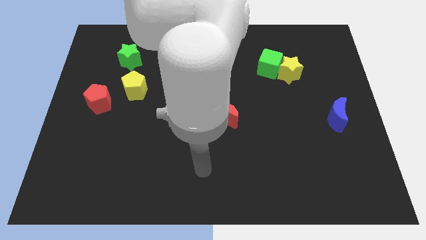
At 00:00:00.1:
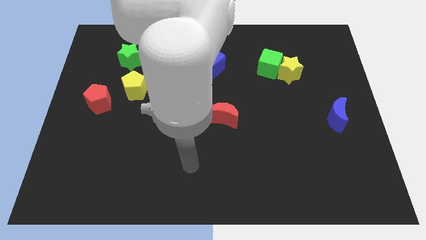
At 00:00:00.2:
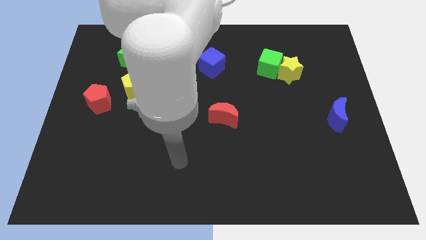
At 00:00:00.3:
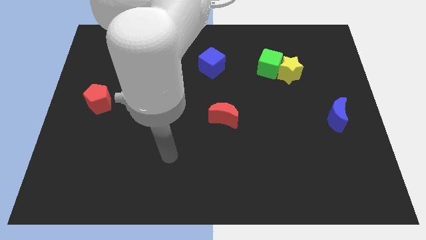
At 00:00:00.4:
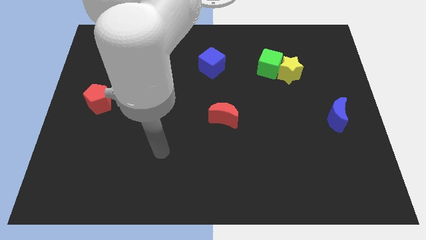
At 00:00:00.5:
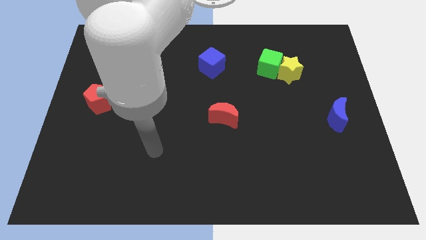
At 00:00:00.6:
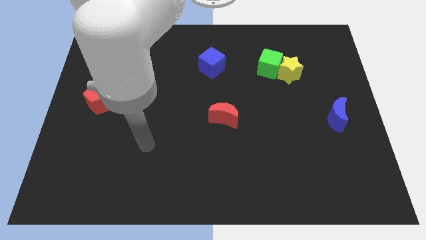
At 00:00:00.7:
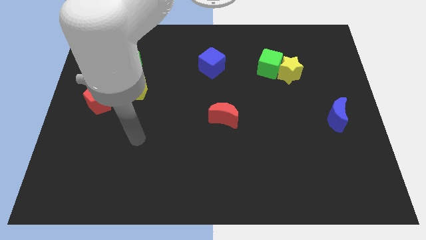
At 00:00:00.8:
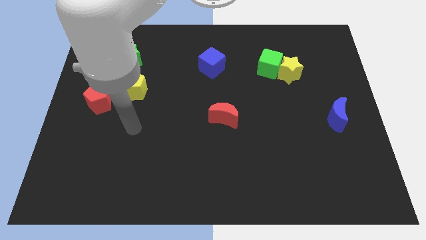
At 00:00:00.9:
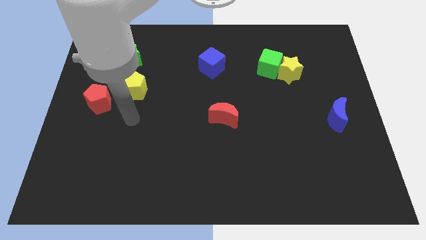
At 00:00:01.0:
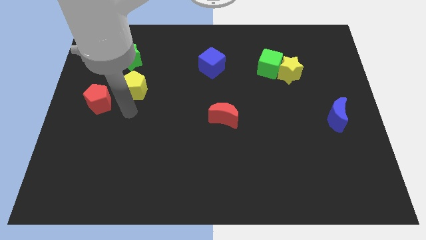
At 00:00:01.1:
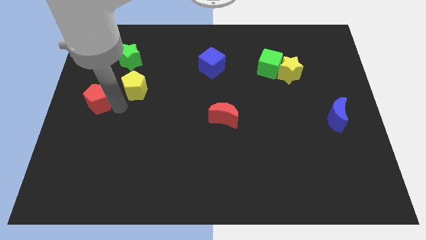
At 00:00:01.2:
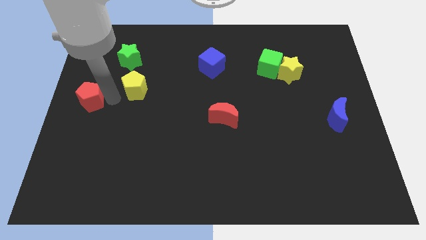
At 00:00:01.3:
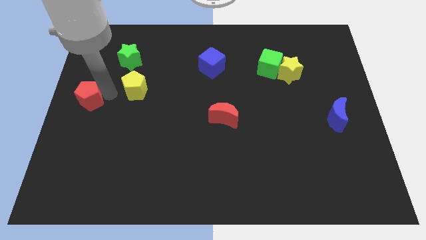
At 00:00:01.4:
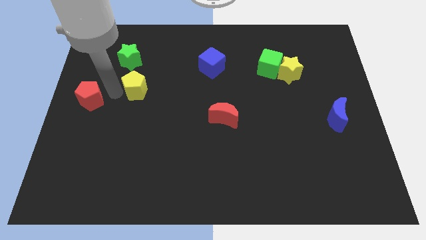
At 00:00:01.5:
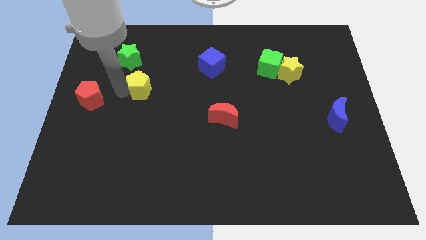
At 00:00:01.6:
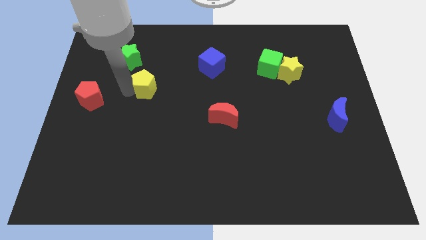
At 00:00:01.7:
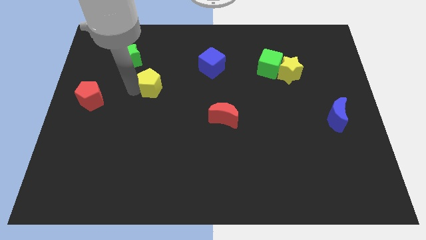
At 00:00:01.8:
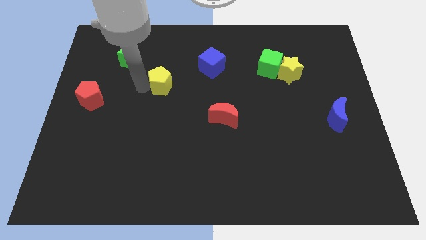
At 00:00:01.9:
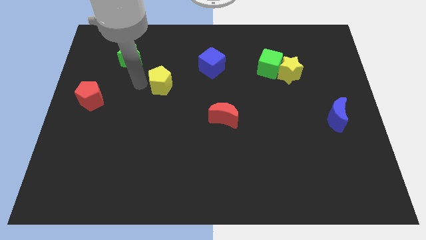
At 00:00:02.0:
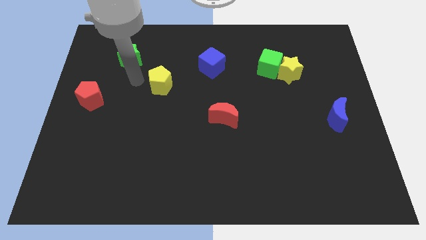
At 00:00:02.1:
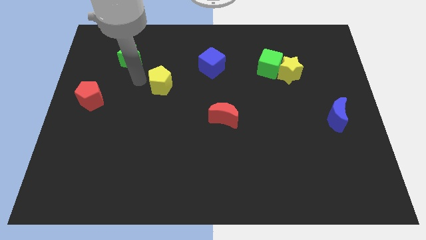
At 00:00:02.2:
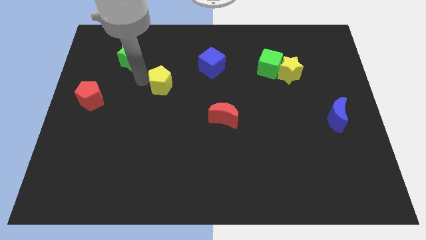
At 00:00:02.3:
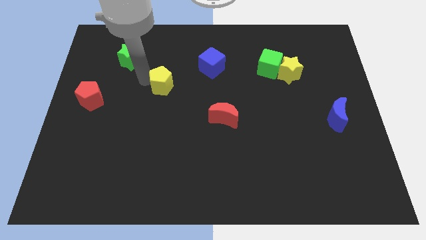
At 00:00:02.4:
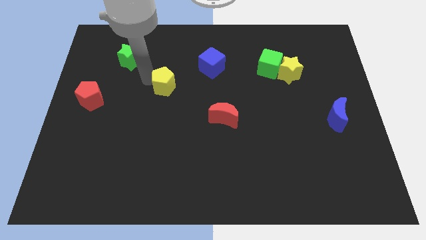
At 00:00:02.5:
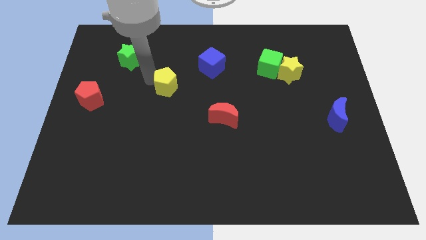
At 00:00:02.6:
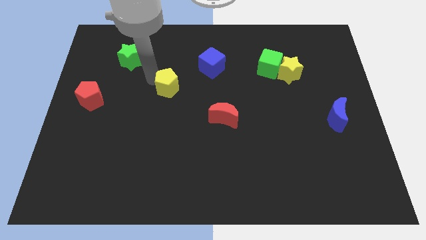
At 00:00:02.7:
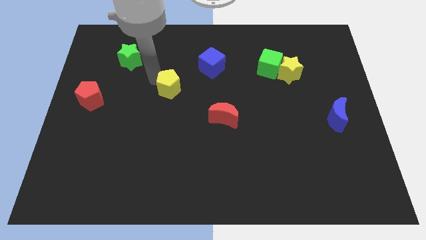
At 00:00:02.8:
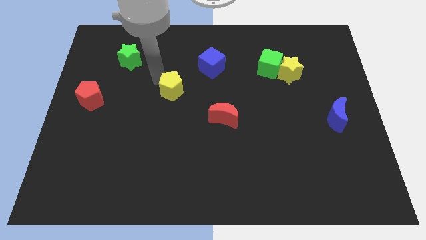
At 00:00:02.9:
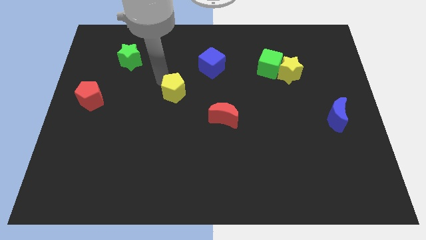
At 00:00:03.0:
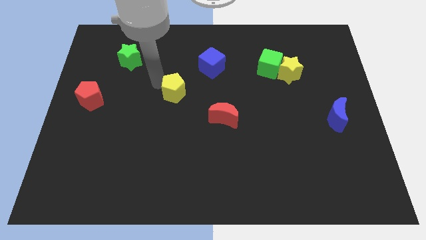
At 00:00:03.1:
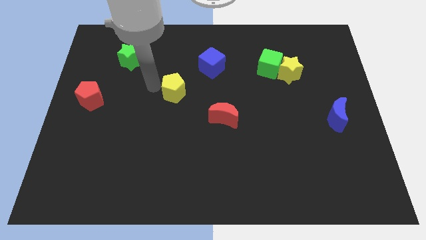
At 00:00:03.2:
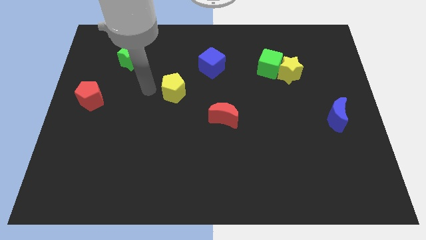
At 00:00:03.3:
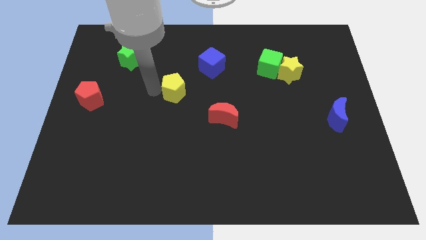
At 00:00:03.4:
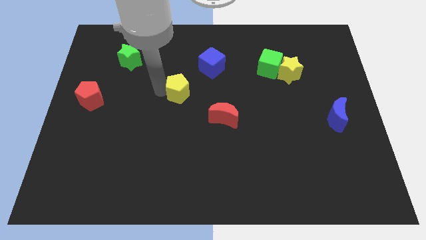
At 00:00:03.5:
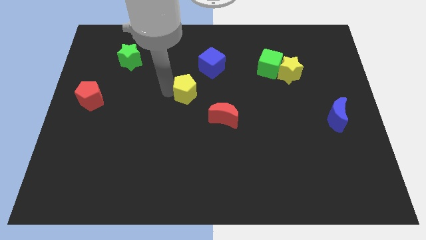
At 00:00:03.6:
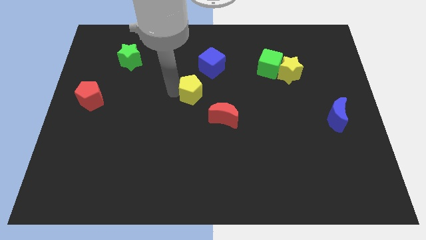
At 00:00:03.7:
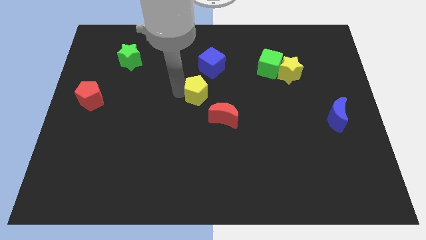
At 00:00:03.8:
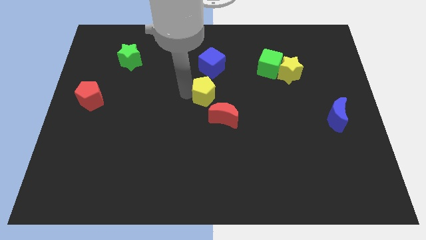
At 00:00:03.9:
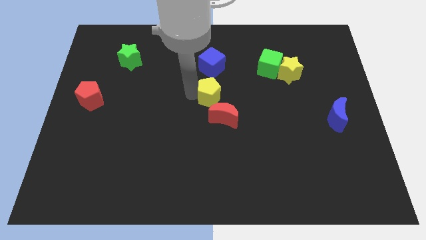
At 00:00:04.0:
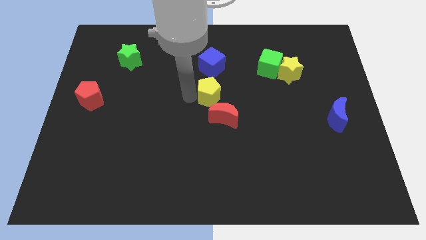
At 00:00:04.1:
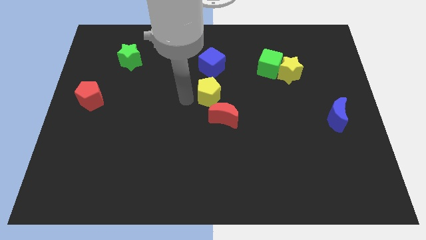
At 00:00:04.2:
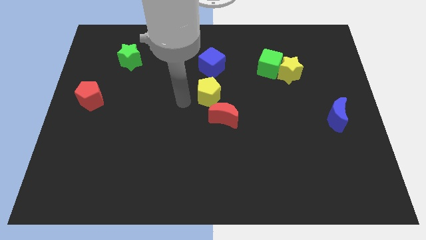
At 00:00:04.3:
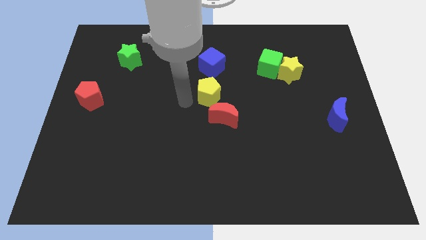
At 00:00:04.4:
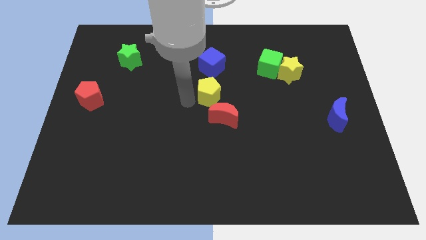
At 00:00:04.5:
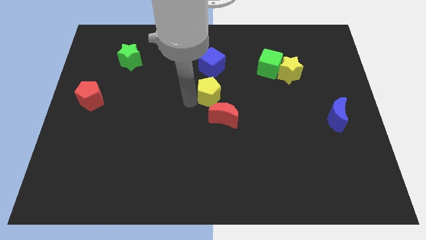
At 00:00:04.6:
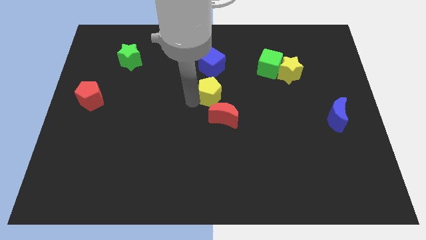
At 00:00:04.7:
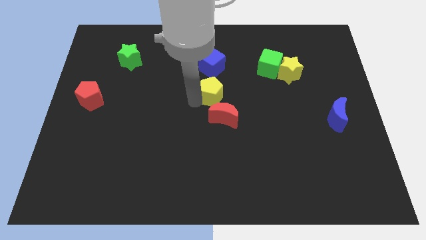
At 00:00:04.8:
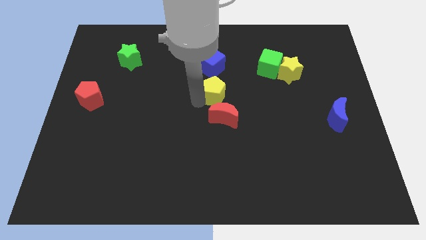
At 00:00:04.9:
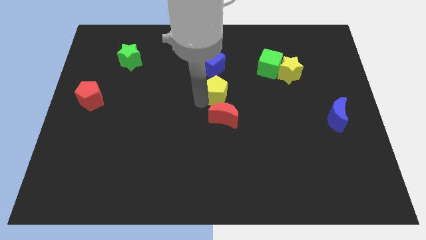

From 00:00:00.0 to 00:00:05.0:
push the yellow pentagon to the right

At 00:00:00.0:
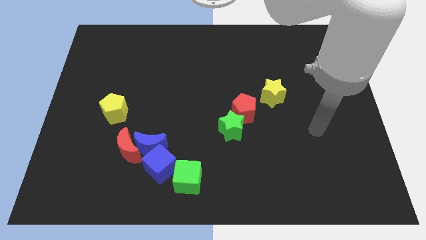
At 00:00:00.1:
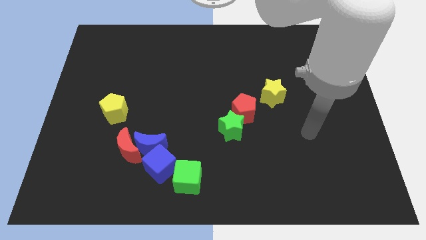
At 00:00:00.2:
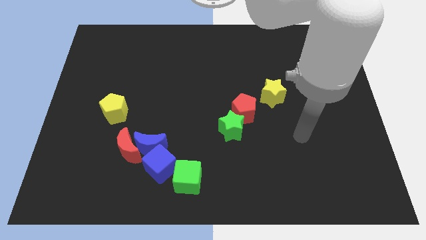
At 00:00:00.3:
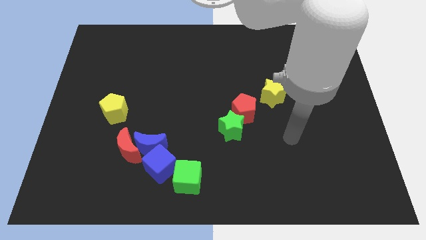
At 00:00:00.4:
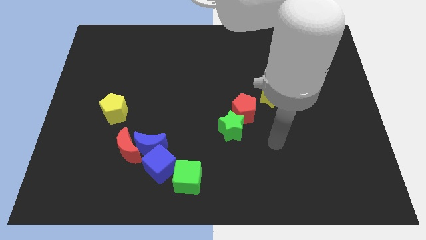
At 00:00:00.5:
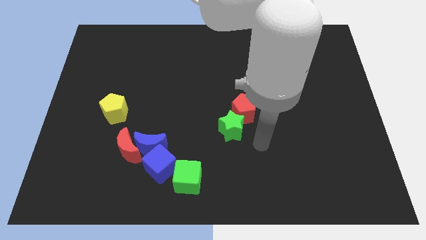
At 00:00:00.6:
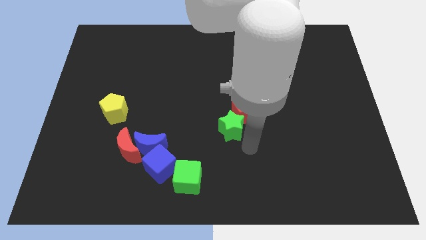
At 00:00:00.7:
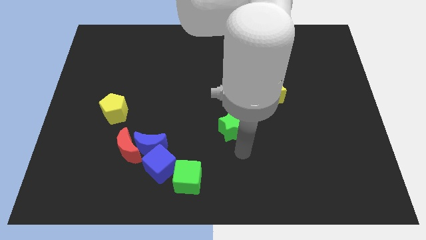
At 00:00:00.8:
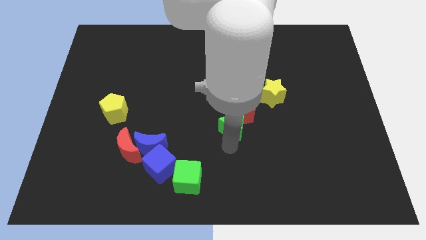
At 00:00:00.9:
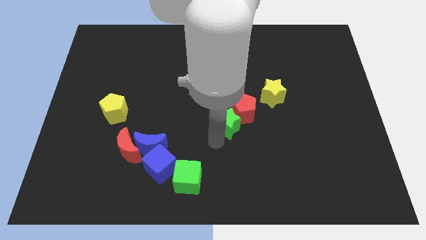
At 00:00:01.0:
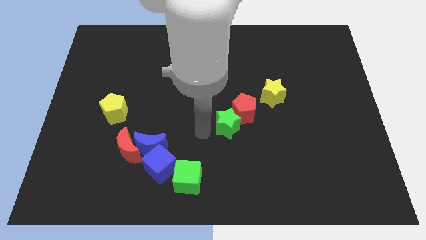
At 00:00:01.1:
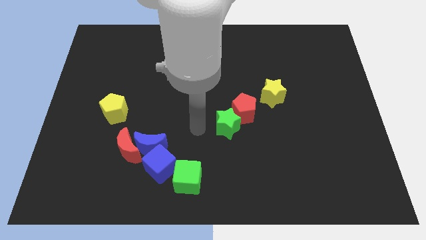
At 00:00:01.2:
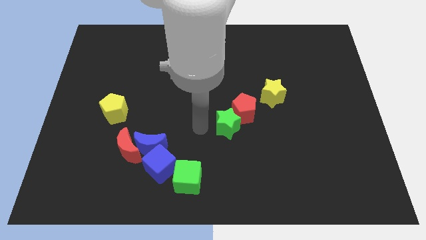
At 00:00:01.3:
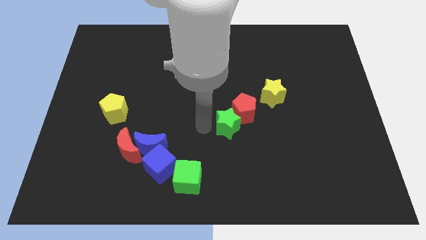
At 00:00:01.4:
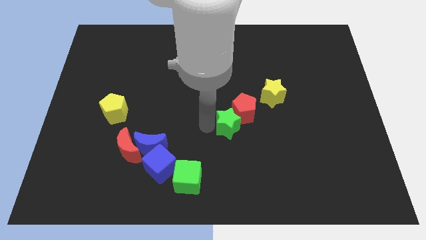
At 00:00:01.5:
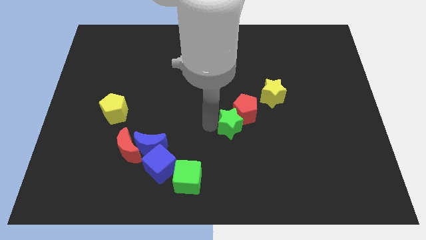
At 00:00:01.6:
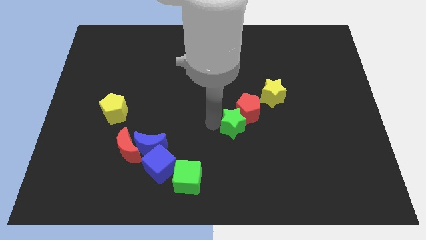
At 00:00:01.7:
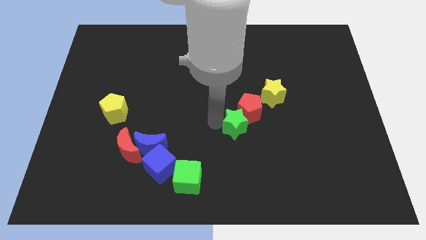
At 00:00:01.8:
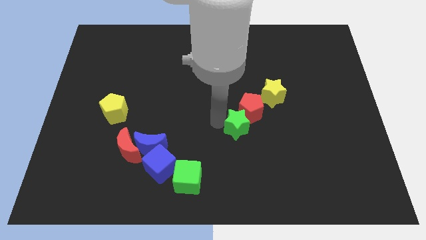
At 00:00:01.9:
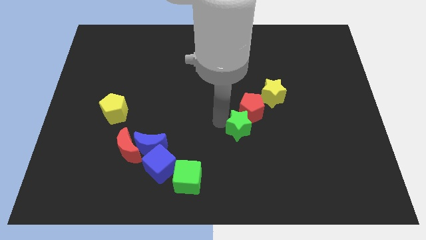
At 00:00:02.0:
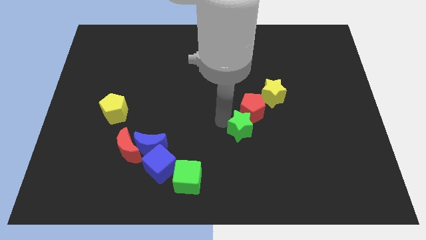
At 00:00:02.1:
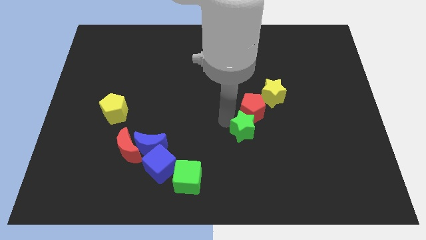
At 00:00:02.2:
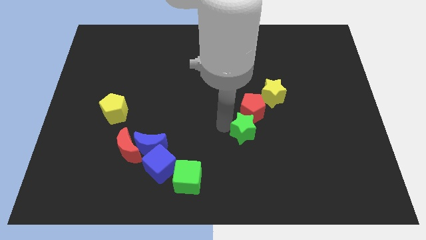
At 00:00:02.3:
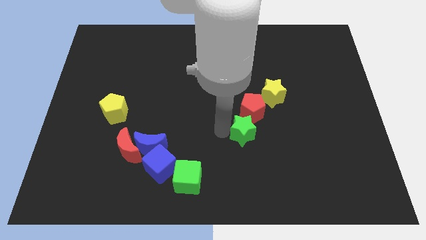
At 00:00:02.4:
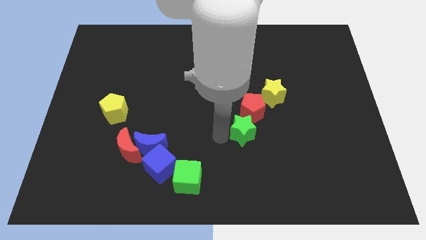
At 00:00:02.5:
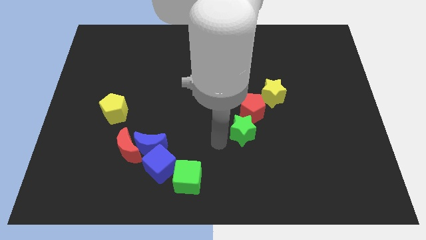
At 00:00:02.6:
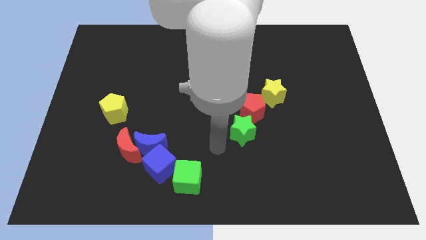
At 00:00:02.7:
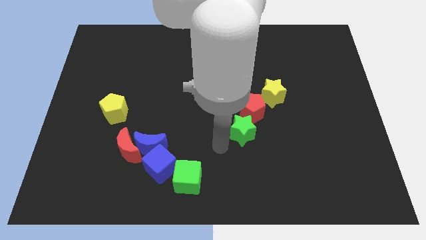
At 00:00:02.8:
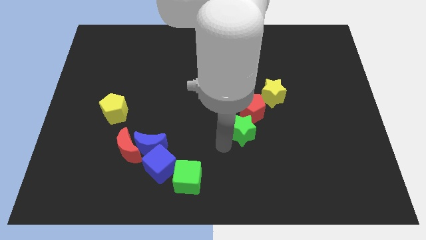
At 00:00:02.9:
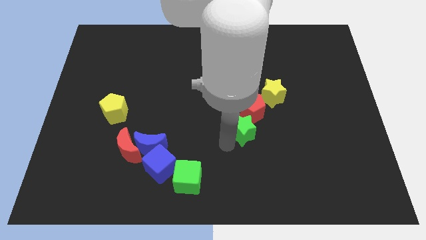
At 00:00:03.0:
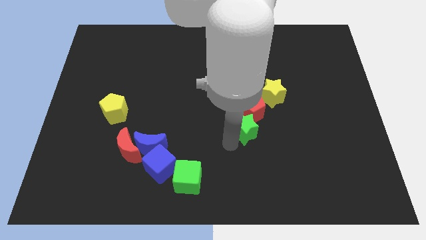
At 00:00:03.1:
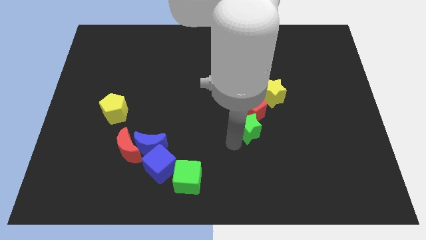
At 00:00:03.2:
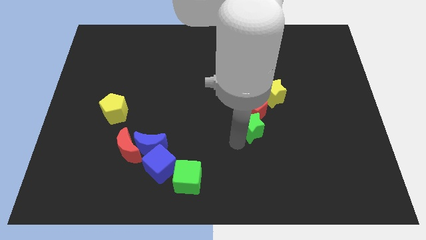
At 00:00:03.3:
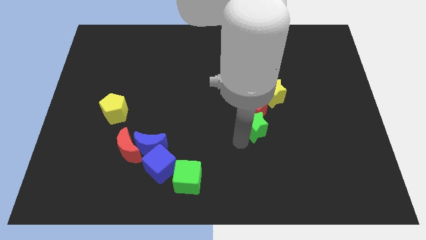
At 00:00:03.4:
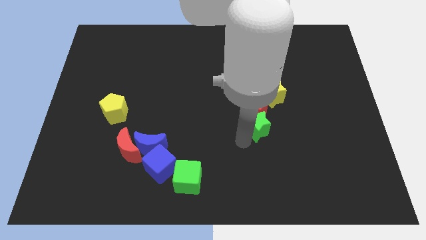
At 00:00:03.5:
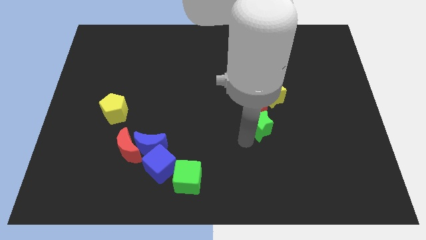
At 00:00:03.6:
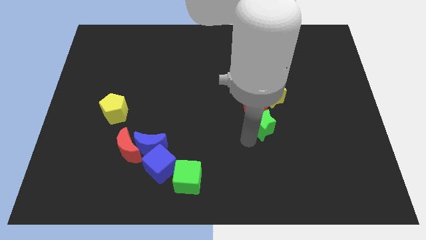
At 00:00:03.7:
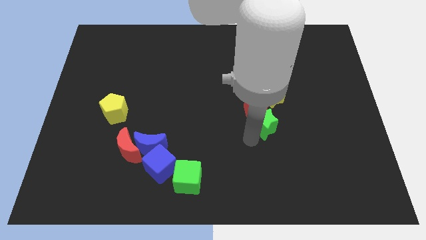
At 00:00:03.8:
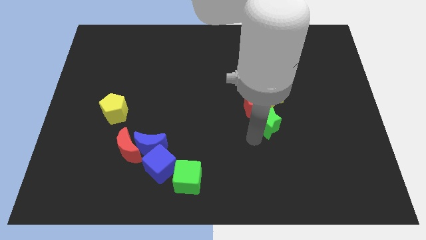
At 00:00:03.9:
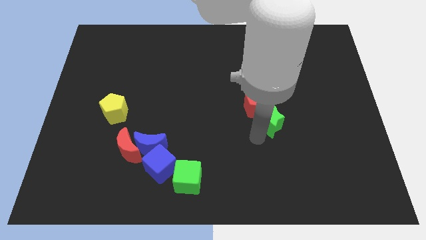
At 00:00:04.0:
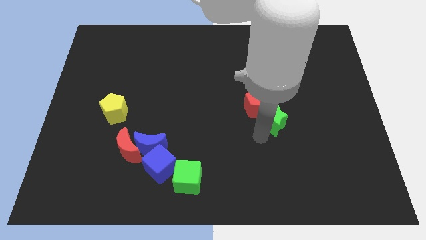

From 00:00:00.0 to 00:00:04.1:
slightly slide the green star up and to the right
